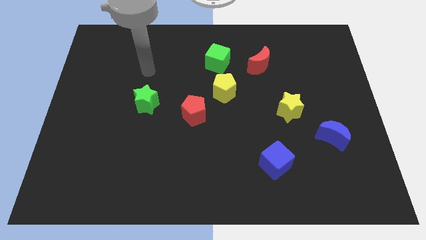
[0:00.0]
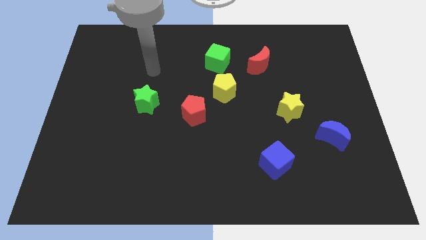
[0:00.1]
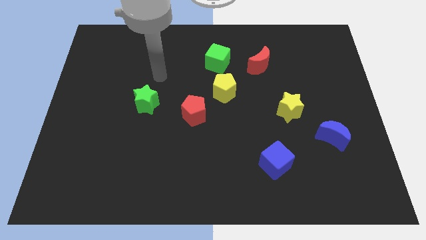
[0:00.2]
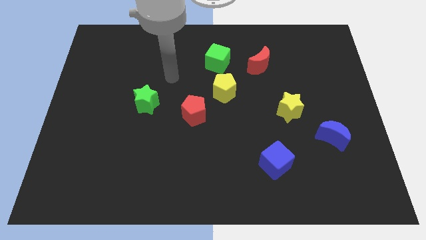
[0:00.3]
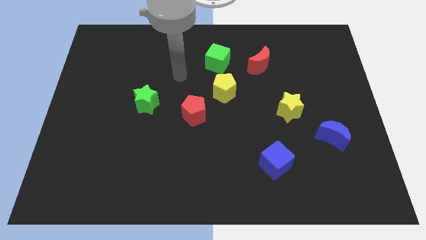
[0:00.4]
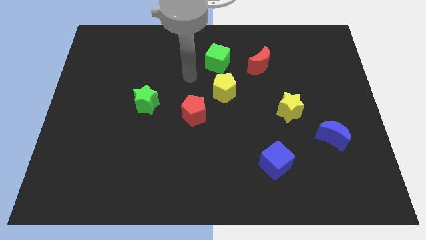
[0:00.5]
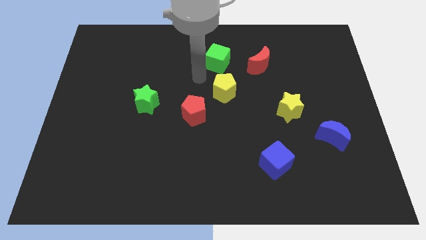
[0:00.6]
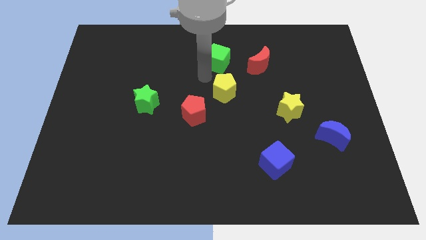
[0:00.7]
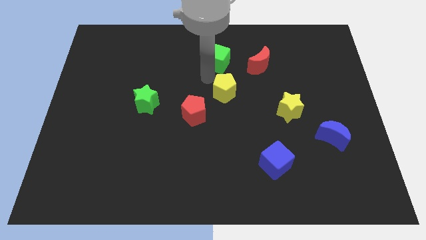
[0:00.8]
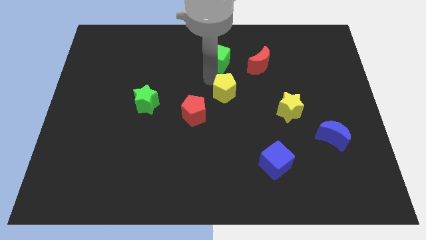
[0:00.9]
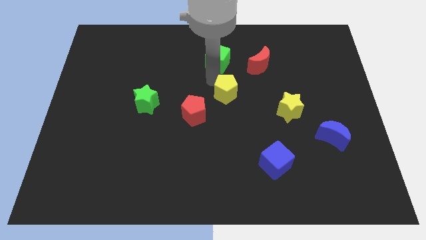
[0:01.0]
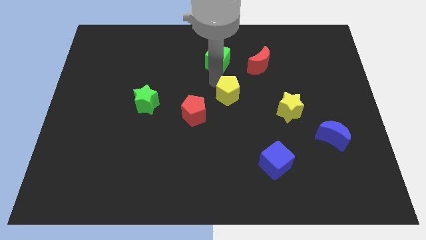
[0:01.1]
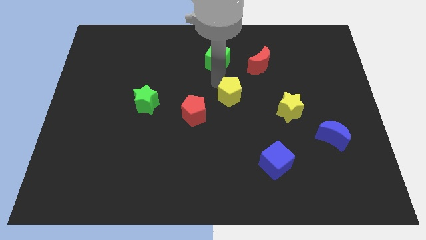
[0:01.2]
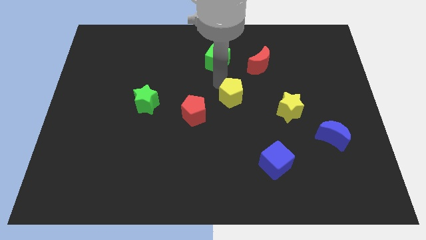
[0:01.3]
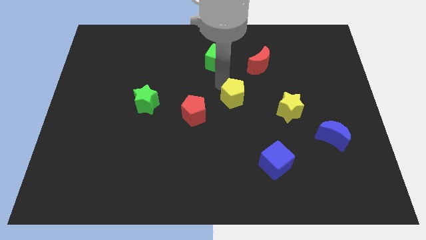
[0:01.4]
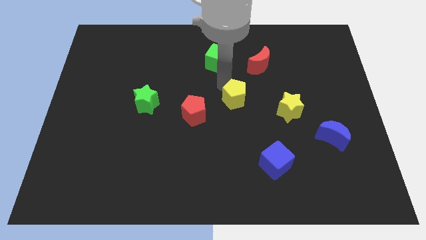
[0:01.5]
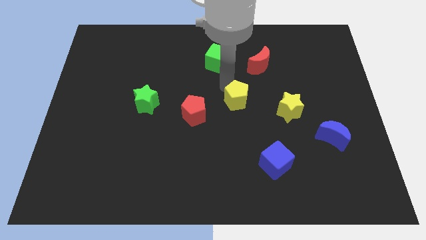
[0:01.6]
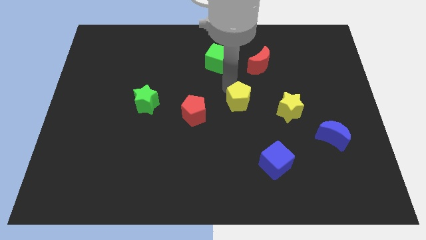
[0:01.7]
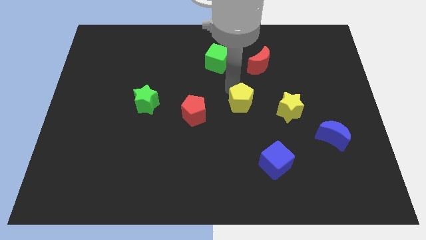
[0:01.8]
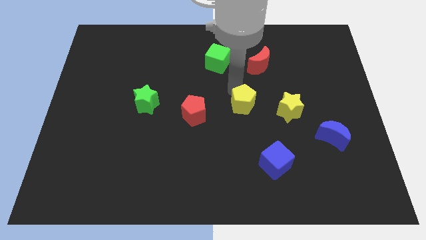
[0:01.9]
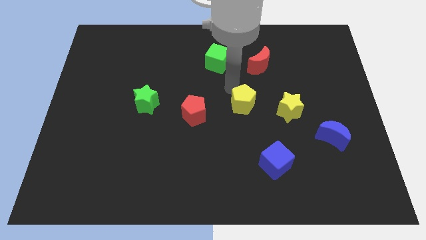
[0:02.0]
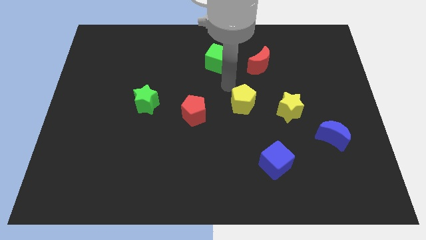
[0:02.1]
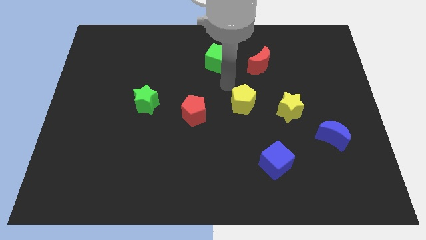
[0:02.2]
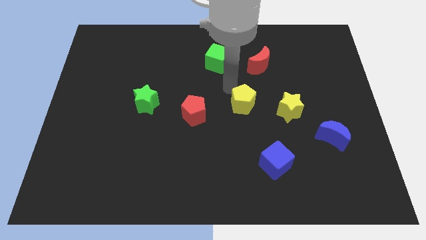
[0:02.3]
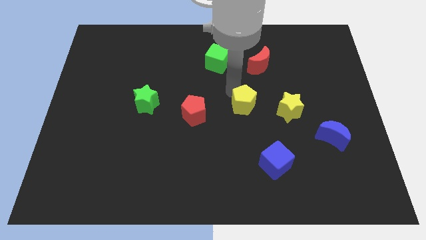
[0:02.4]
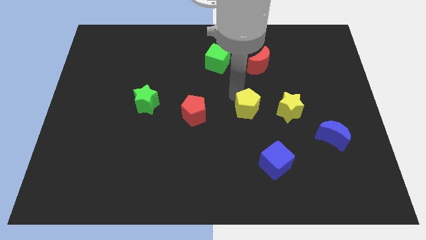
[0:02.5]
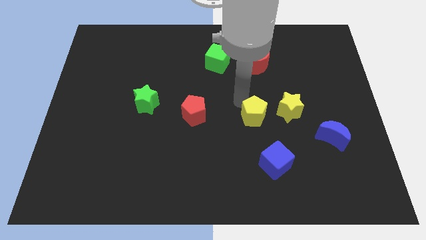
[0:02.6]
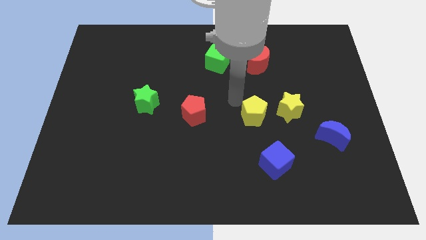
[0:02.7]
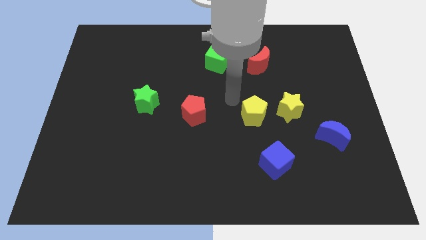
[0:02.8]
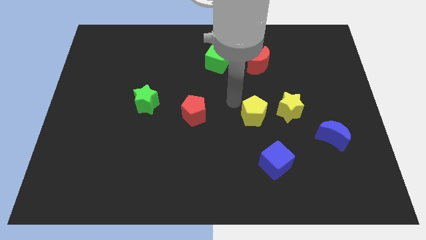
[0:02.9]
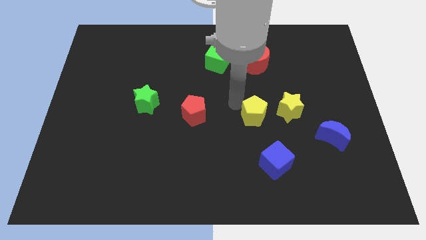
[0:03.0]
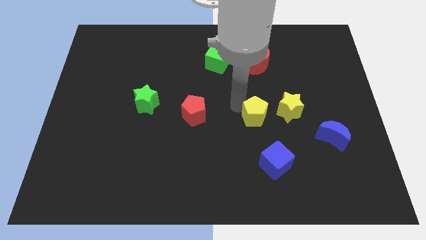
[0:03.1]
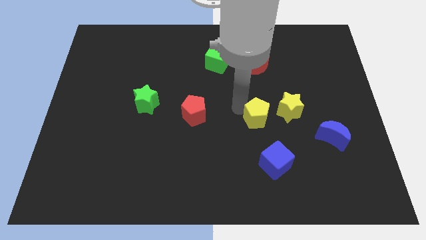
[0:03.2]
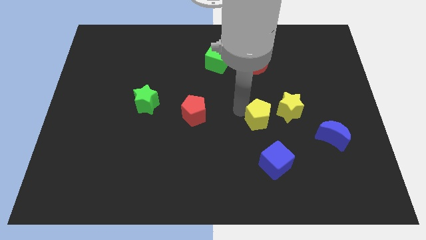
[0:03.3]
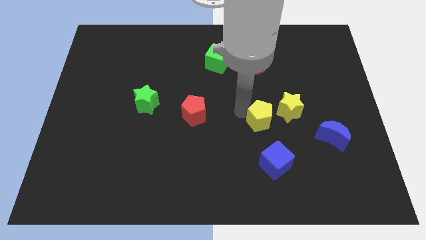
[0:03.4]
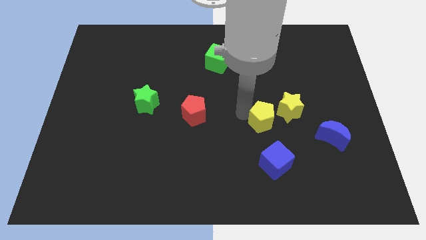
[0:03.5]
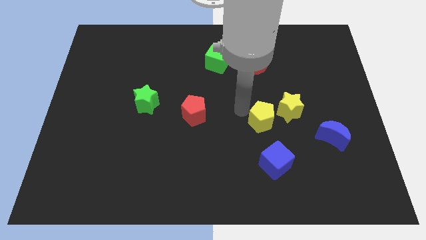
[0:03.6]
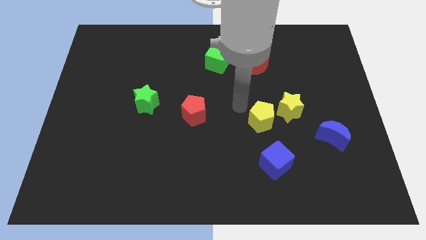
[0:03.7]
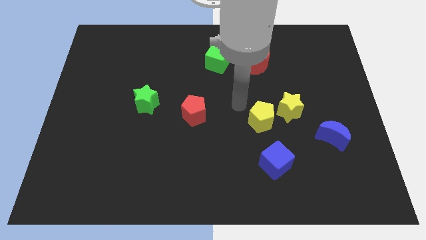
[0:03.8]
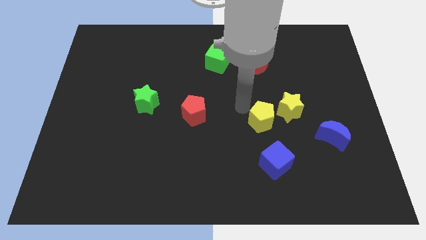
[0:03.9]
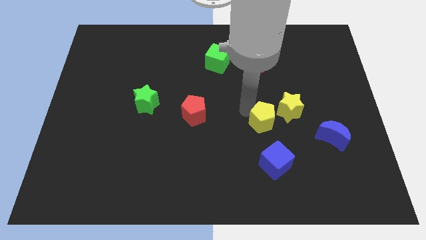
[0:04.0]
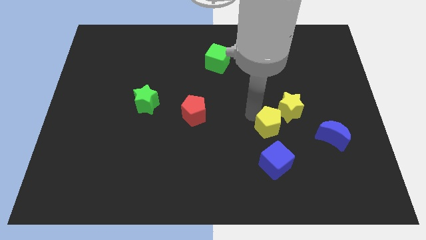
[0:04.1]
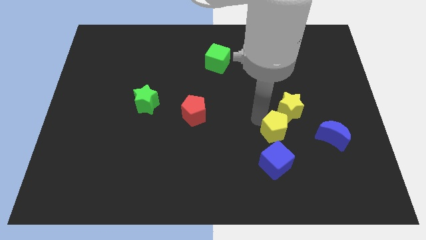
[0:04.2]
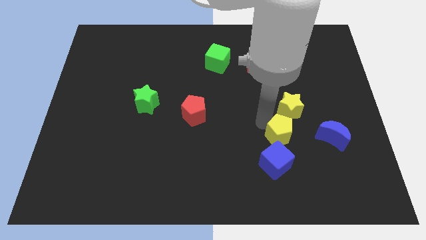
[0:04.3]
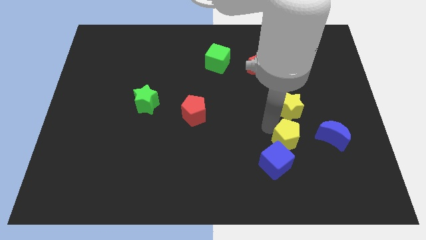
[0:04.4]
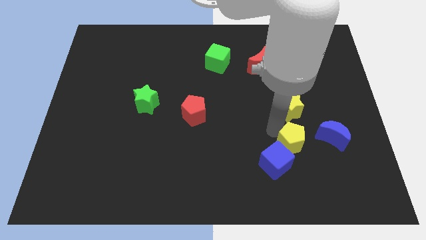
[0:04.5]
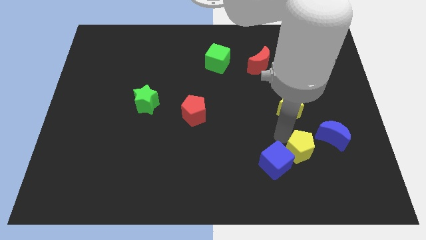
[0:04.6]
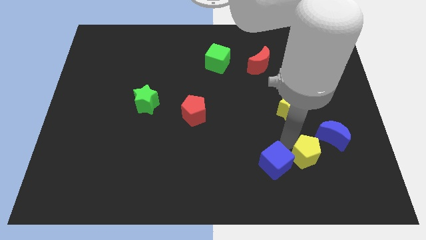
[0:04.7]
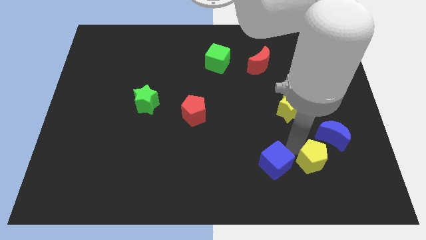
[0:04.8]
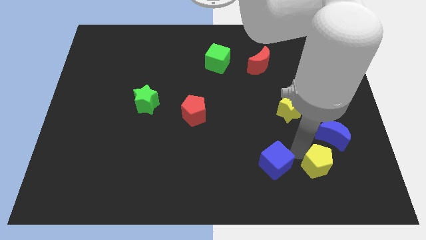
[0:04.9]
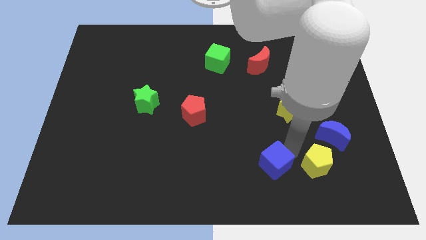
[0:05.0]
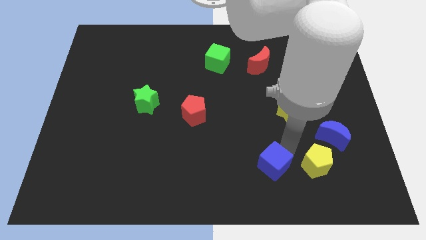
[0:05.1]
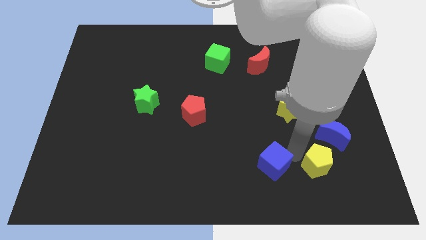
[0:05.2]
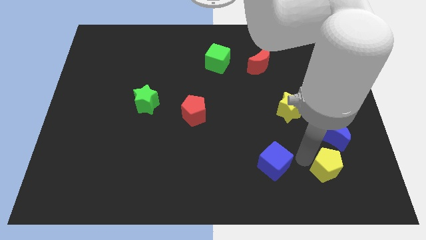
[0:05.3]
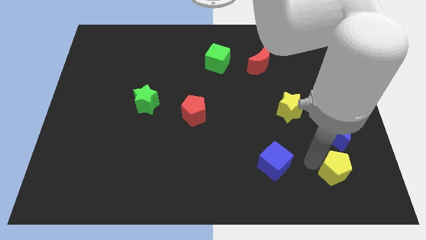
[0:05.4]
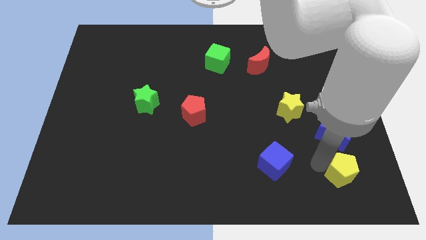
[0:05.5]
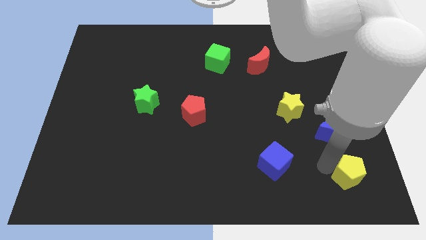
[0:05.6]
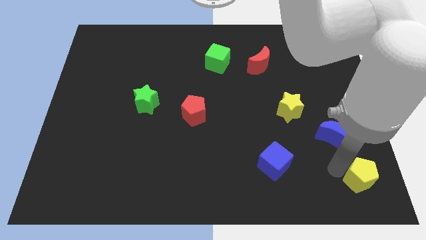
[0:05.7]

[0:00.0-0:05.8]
slide the yellow pentagon to the bottom right

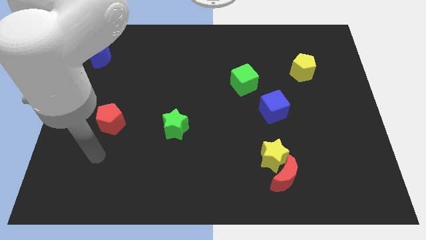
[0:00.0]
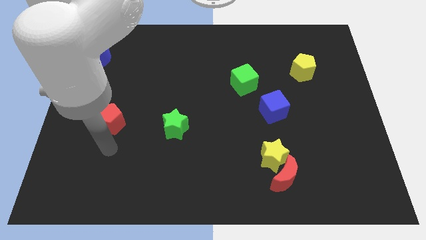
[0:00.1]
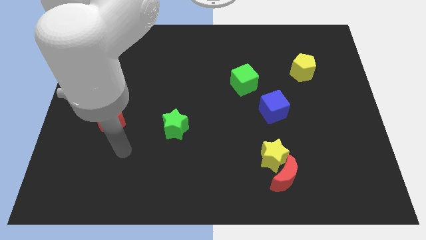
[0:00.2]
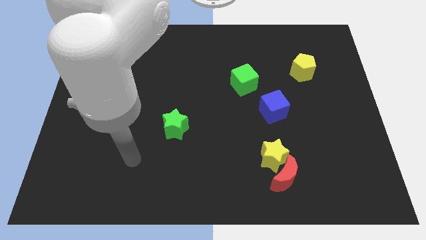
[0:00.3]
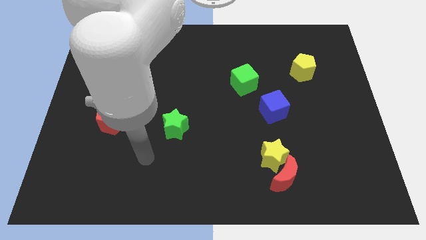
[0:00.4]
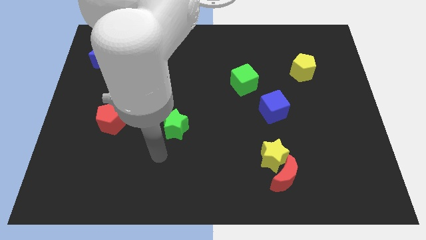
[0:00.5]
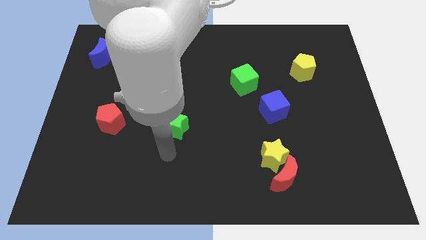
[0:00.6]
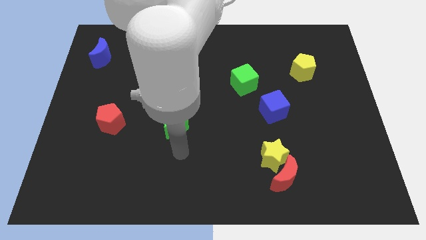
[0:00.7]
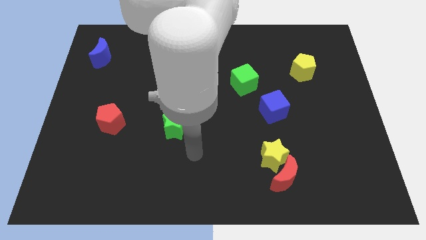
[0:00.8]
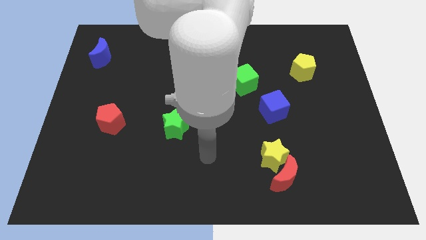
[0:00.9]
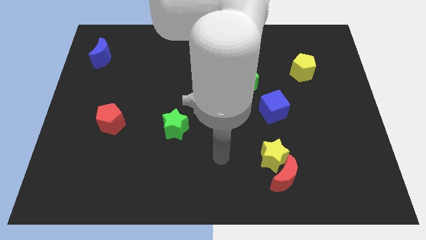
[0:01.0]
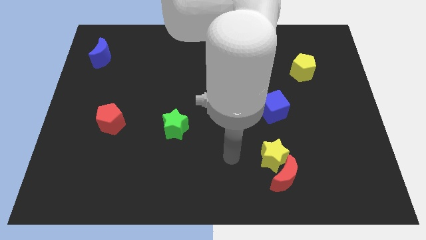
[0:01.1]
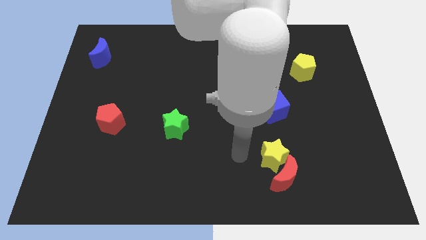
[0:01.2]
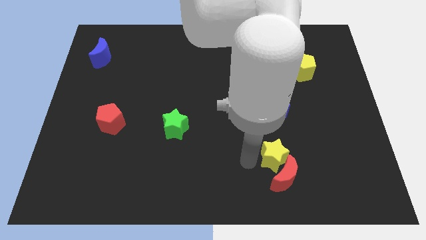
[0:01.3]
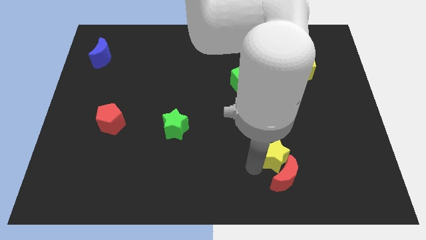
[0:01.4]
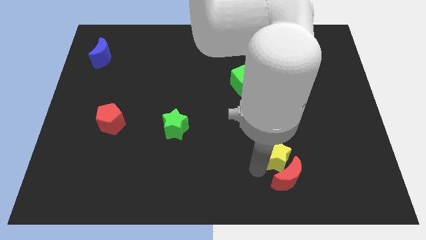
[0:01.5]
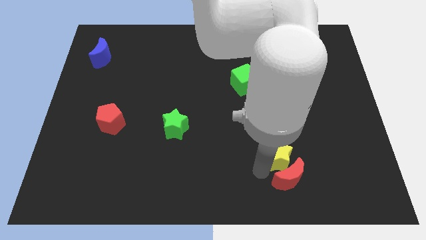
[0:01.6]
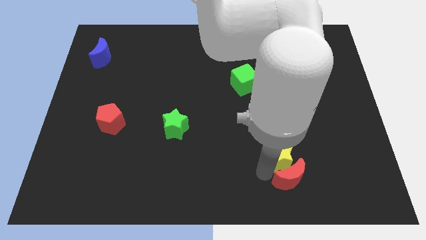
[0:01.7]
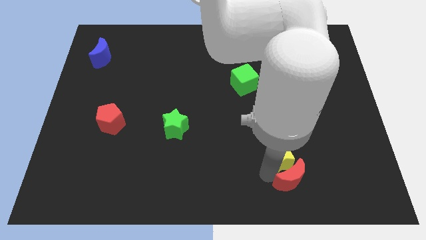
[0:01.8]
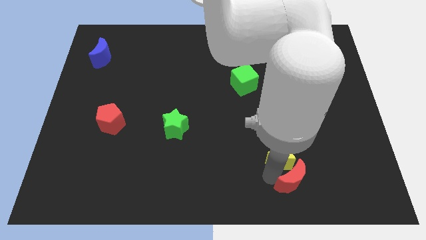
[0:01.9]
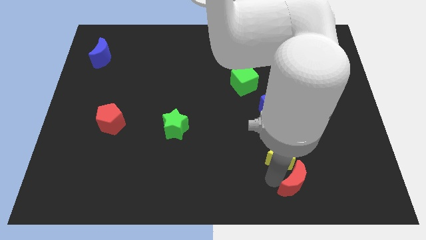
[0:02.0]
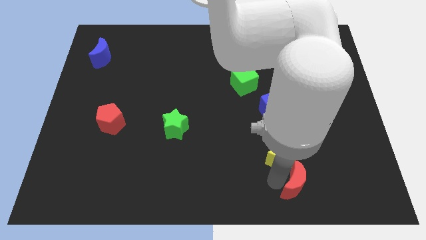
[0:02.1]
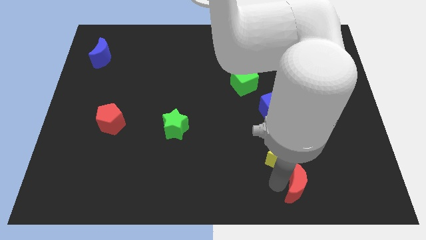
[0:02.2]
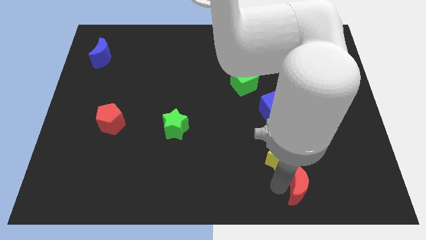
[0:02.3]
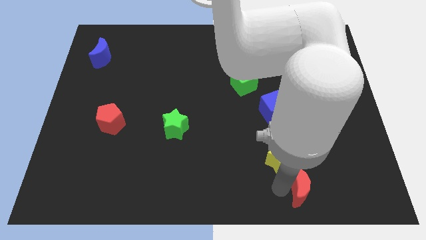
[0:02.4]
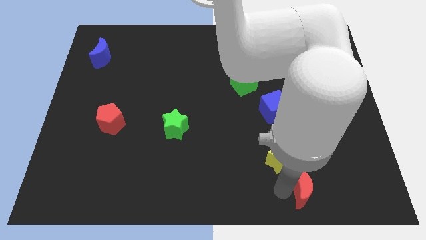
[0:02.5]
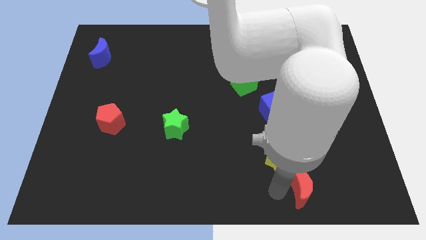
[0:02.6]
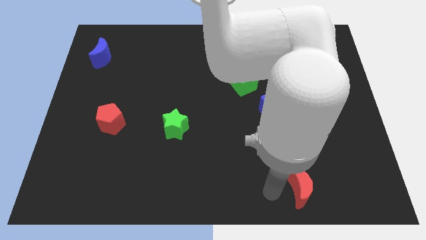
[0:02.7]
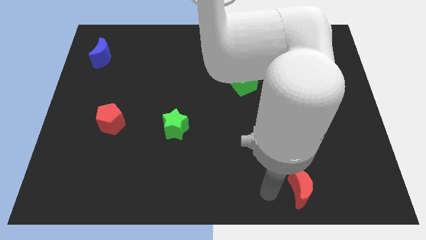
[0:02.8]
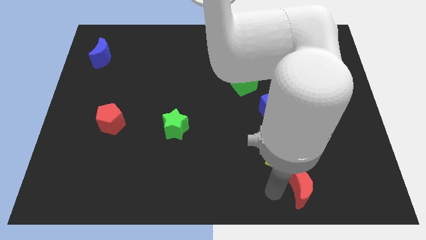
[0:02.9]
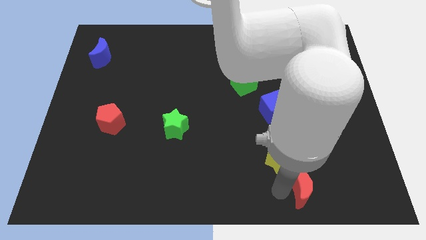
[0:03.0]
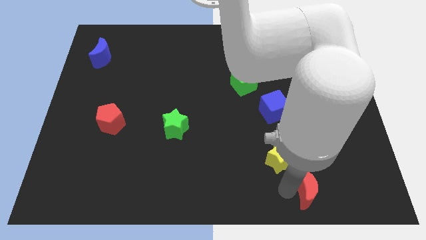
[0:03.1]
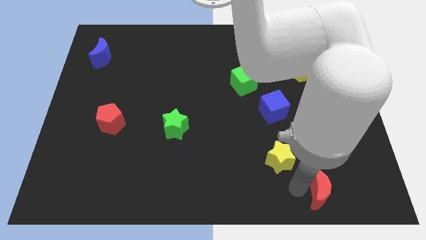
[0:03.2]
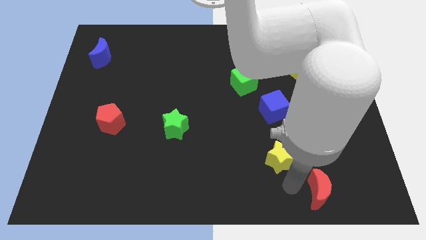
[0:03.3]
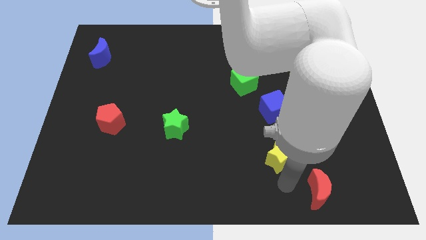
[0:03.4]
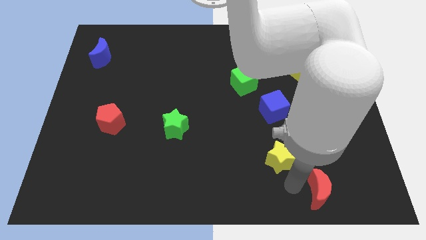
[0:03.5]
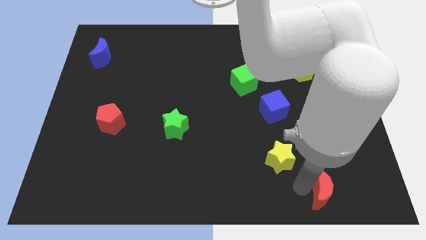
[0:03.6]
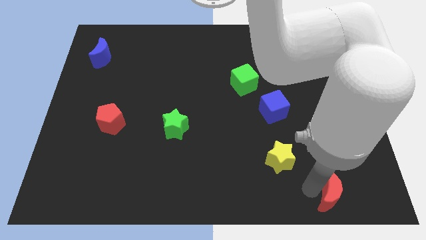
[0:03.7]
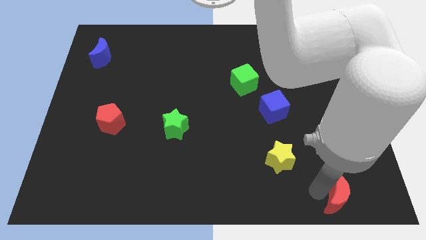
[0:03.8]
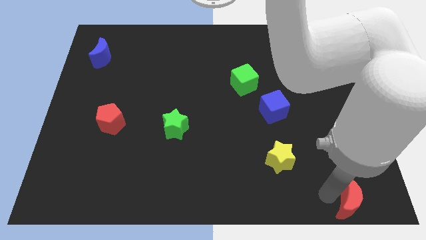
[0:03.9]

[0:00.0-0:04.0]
slide the red moon to the bottom right corner
